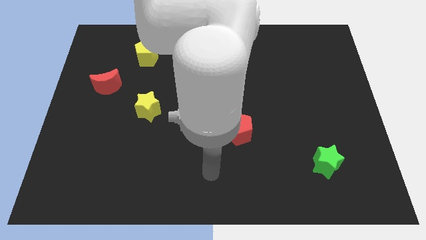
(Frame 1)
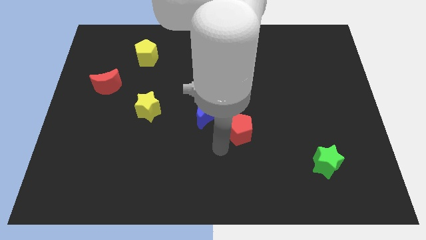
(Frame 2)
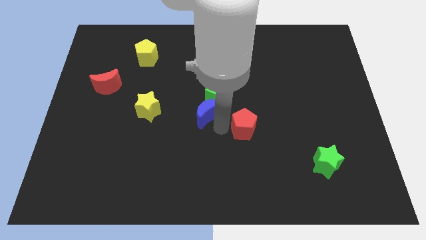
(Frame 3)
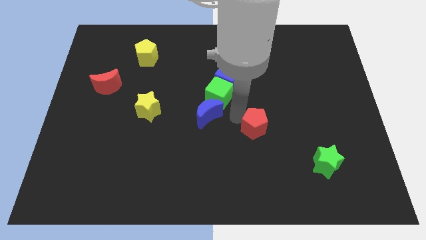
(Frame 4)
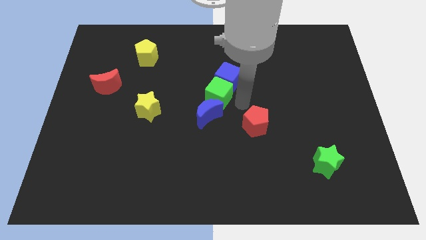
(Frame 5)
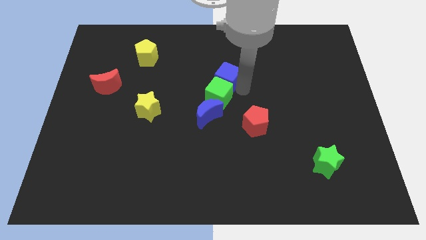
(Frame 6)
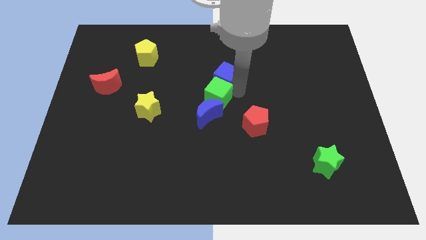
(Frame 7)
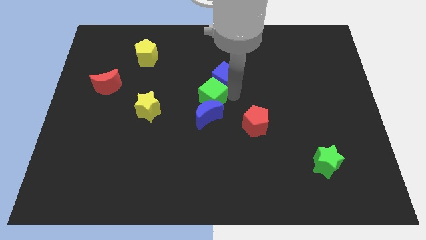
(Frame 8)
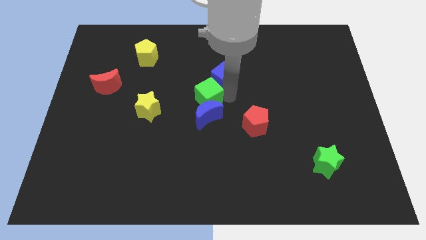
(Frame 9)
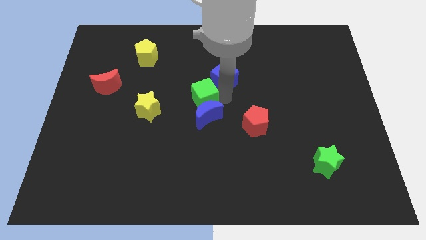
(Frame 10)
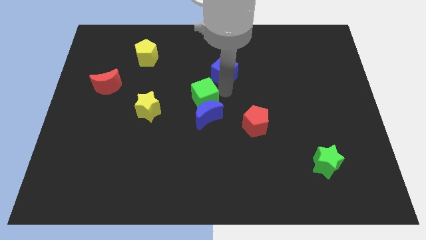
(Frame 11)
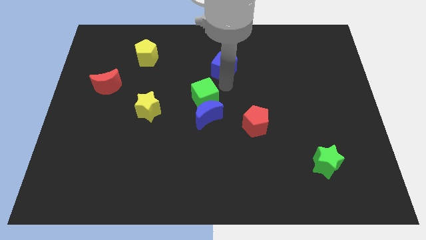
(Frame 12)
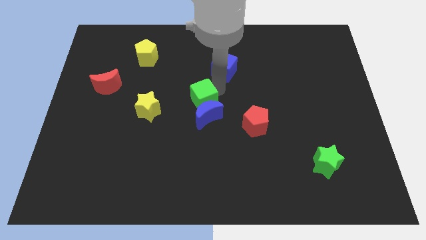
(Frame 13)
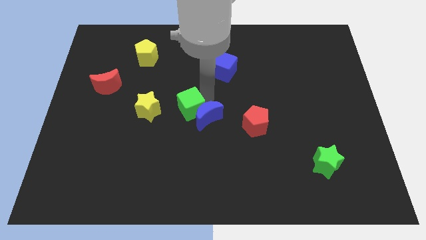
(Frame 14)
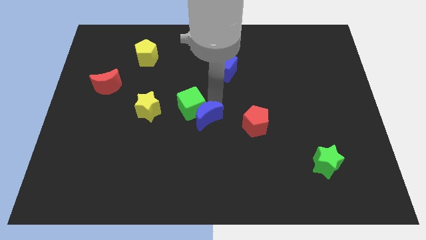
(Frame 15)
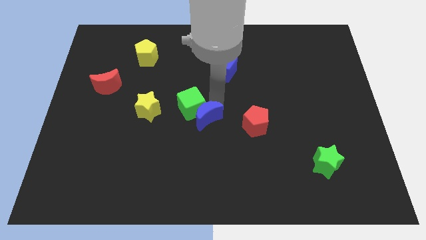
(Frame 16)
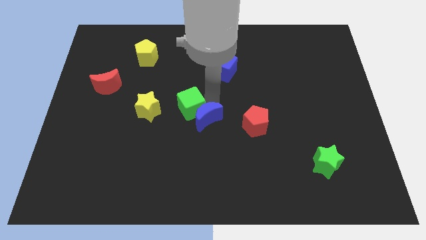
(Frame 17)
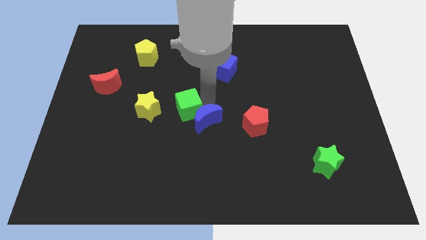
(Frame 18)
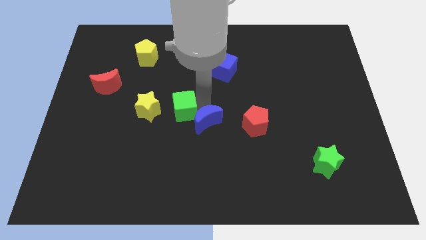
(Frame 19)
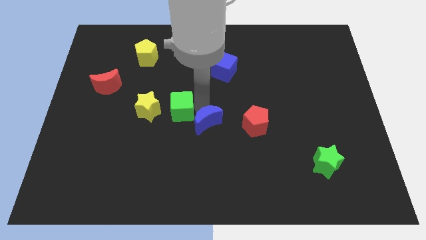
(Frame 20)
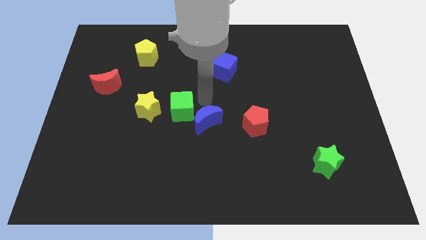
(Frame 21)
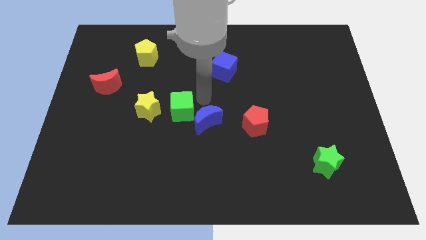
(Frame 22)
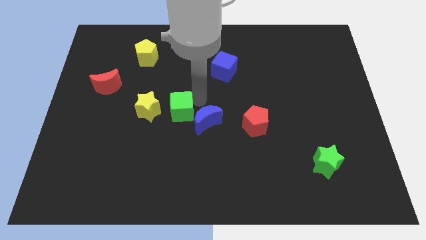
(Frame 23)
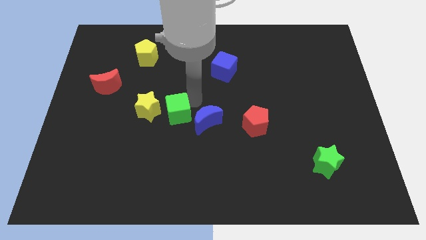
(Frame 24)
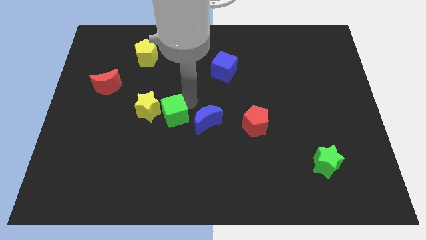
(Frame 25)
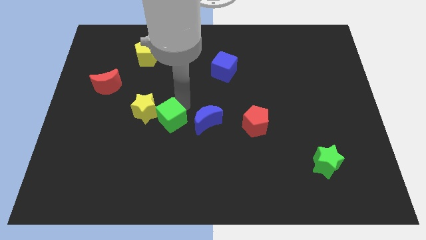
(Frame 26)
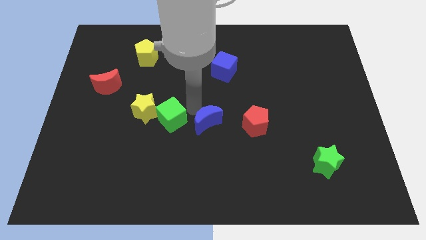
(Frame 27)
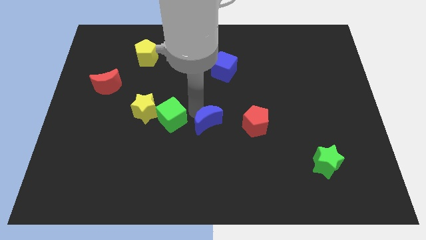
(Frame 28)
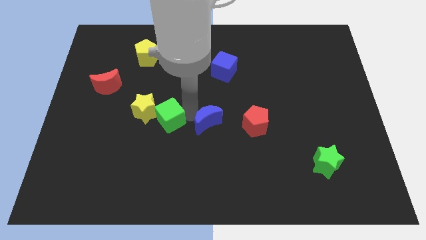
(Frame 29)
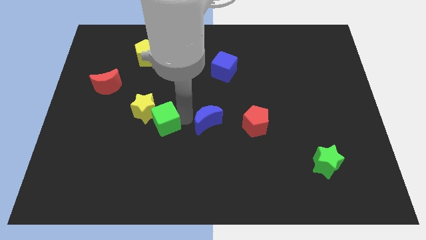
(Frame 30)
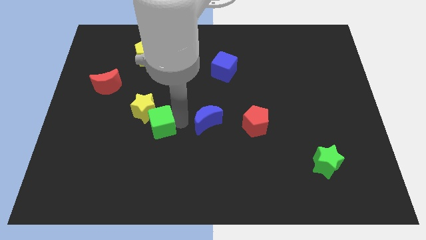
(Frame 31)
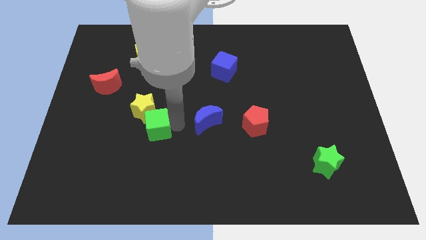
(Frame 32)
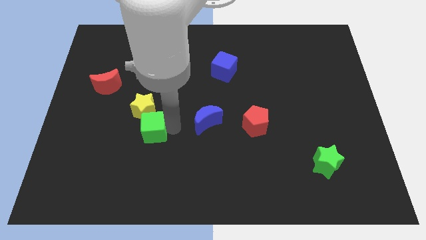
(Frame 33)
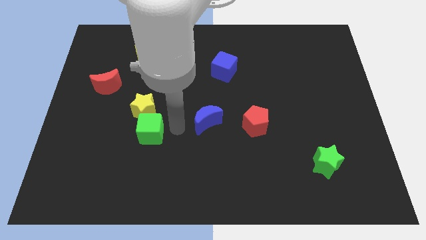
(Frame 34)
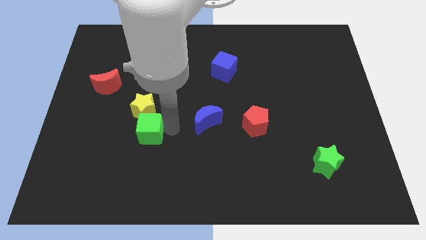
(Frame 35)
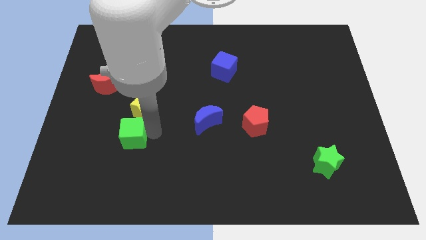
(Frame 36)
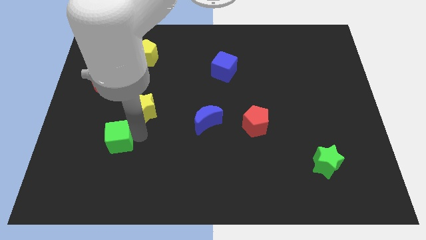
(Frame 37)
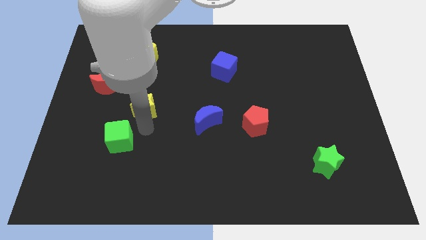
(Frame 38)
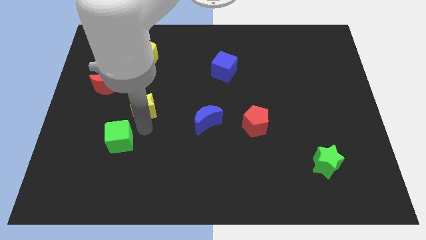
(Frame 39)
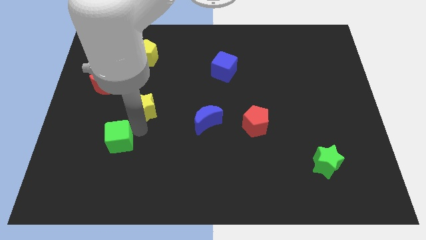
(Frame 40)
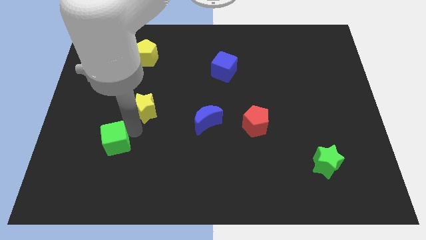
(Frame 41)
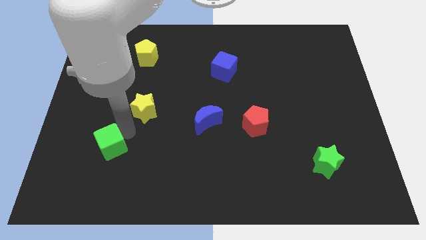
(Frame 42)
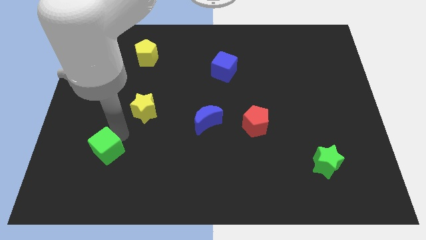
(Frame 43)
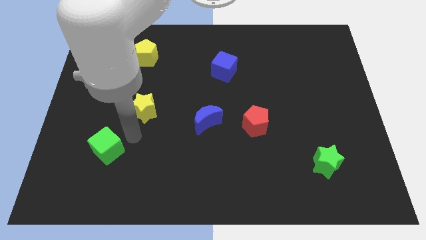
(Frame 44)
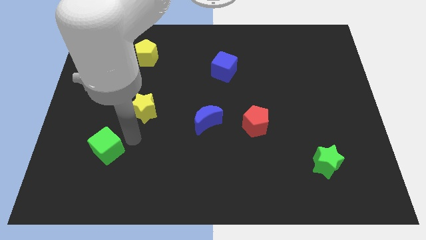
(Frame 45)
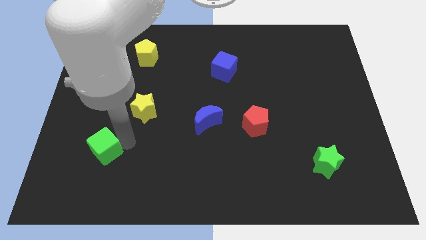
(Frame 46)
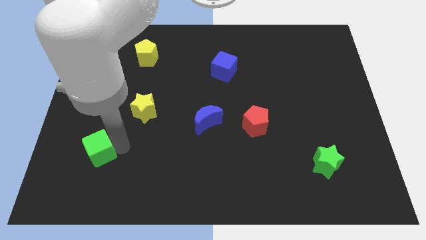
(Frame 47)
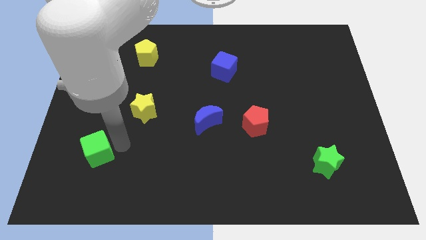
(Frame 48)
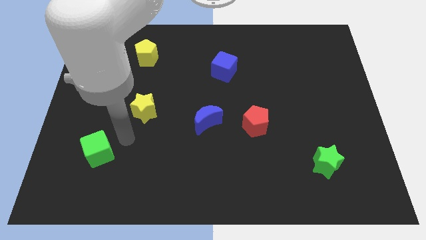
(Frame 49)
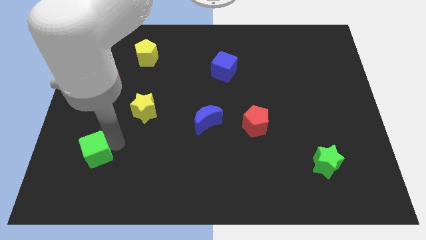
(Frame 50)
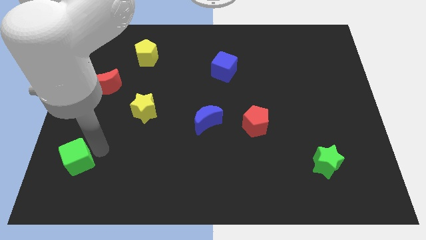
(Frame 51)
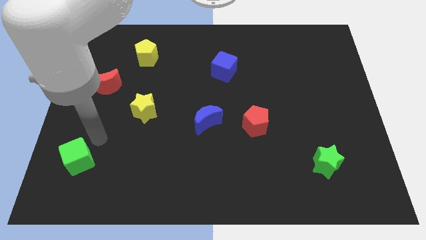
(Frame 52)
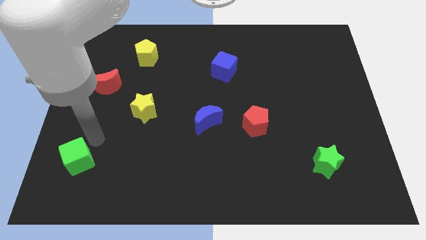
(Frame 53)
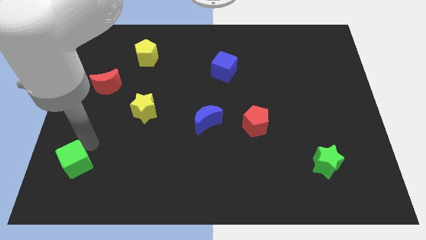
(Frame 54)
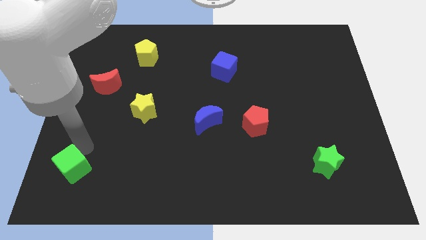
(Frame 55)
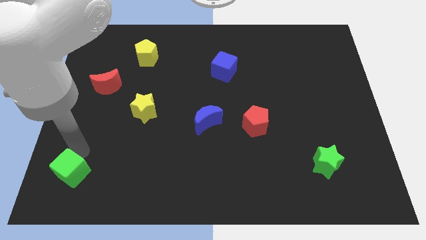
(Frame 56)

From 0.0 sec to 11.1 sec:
move the green cube to the bottom left
